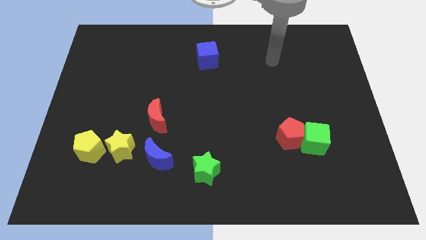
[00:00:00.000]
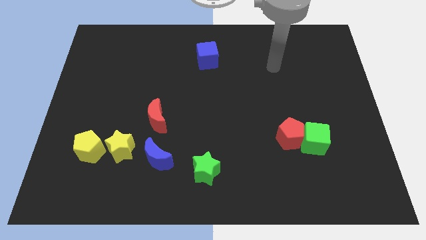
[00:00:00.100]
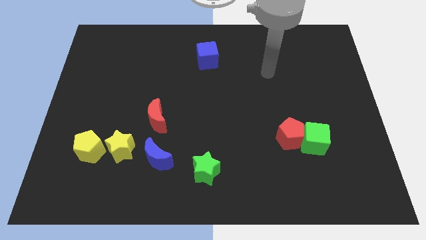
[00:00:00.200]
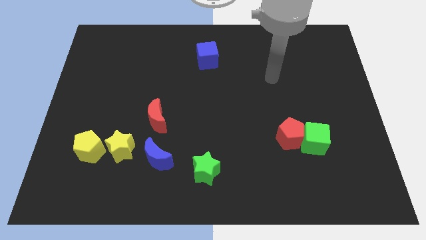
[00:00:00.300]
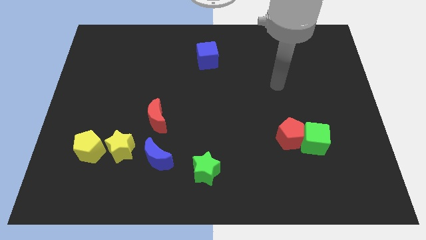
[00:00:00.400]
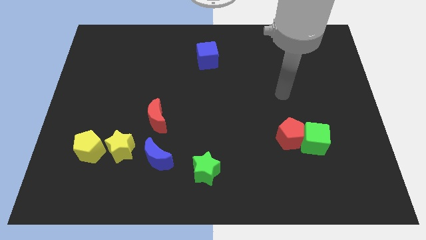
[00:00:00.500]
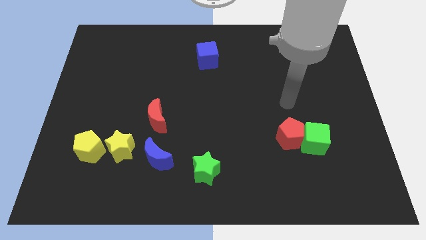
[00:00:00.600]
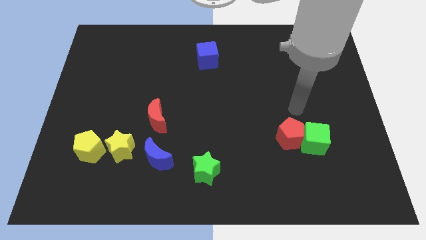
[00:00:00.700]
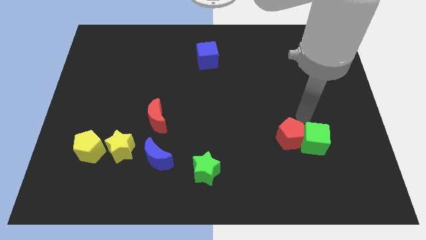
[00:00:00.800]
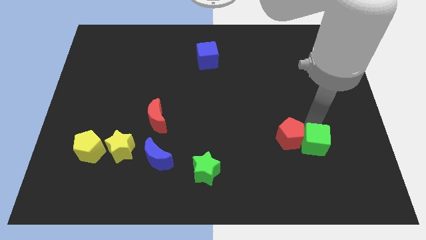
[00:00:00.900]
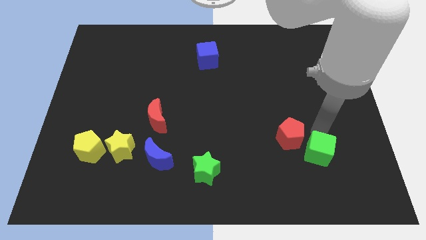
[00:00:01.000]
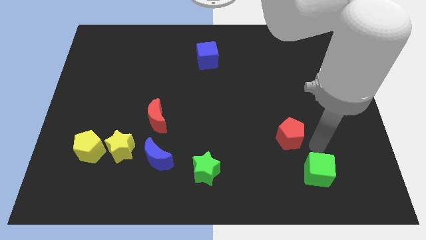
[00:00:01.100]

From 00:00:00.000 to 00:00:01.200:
separate the red pentagon from the green cube

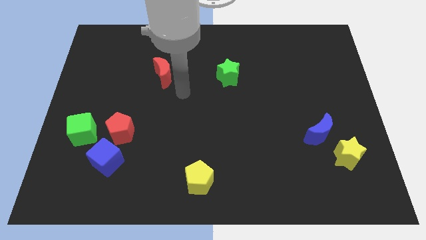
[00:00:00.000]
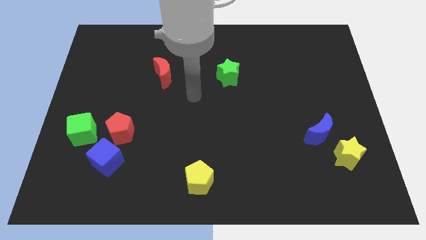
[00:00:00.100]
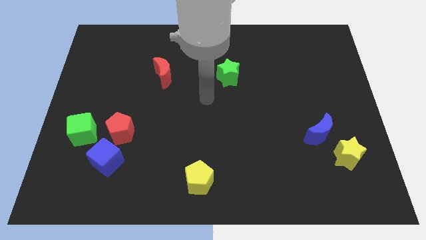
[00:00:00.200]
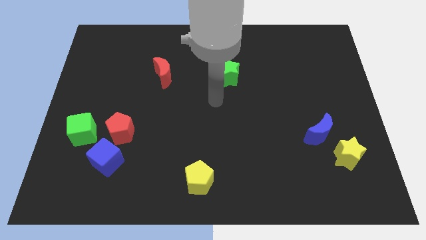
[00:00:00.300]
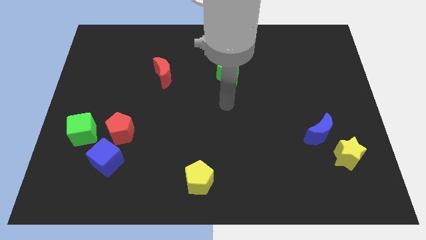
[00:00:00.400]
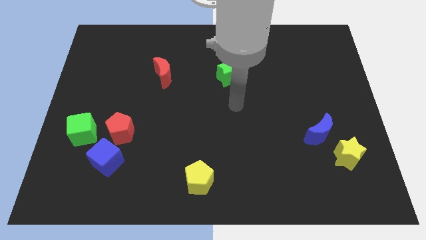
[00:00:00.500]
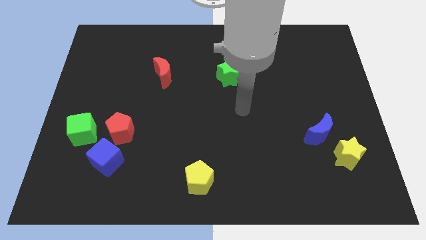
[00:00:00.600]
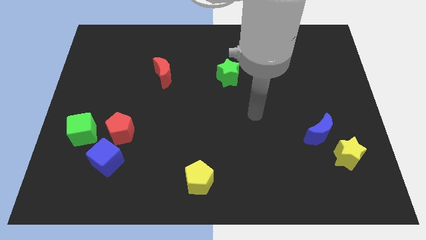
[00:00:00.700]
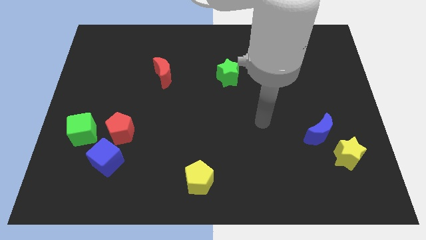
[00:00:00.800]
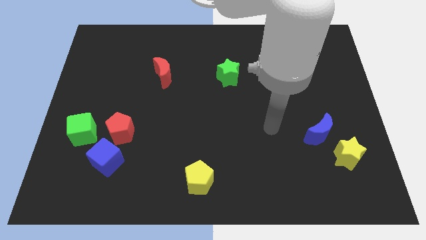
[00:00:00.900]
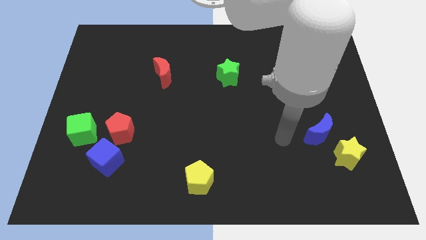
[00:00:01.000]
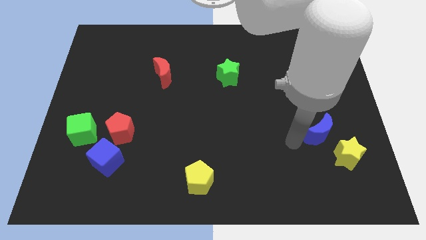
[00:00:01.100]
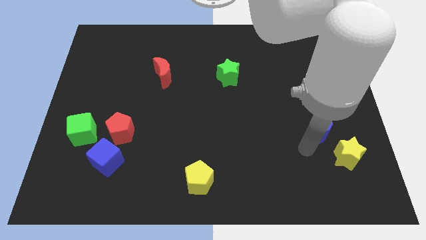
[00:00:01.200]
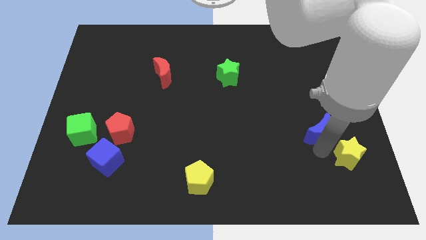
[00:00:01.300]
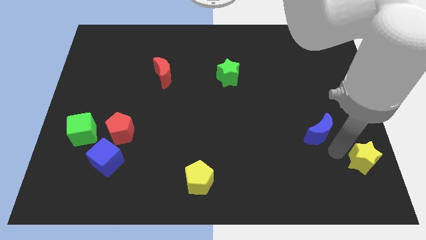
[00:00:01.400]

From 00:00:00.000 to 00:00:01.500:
move the blue moon away from the yellow star

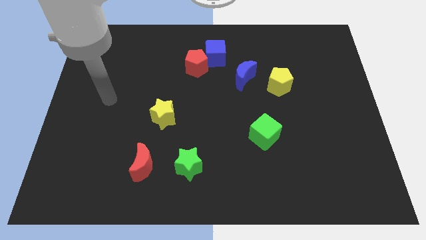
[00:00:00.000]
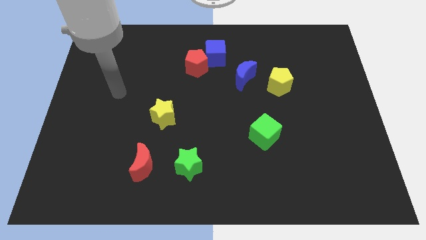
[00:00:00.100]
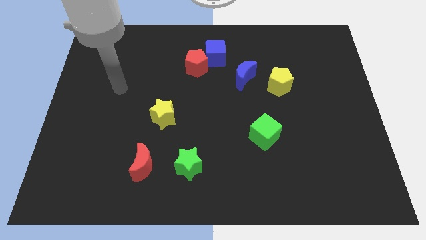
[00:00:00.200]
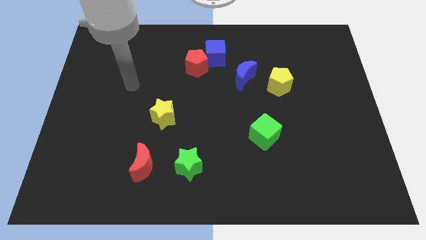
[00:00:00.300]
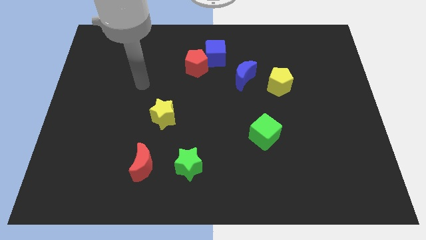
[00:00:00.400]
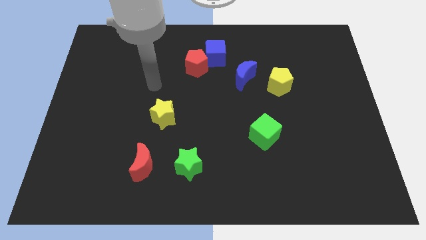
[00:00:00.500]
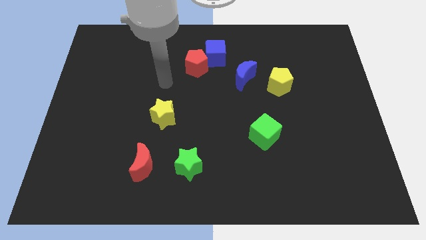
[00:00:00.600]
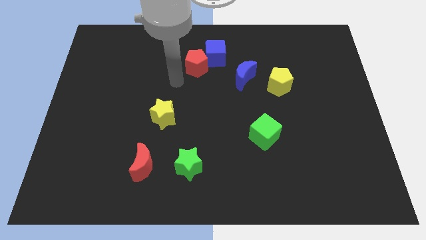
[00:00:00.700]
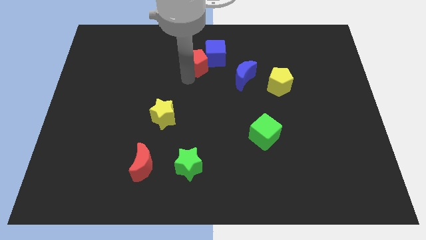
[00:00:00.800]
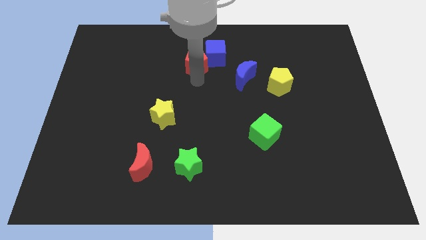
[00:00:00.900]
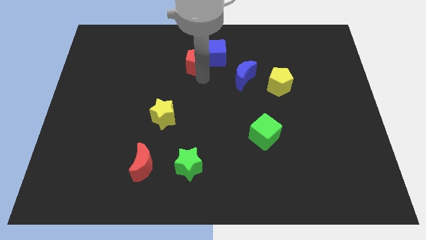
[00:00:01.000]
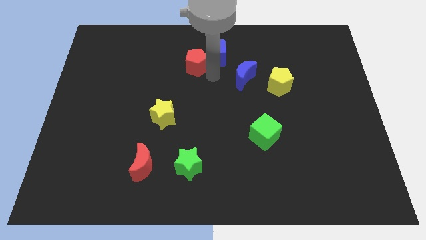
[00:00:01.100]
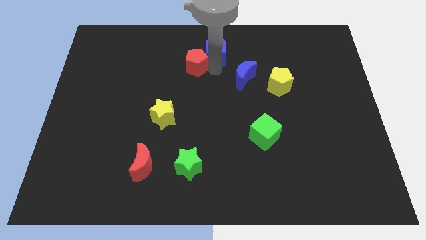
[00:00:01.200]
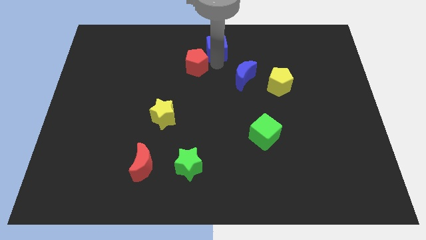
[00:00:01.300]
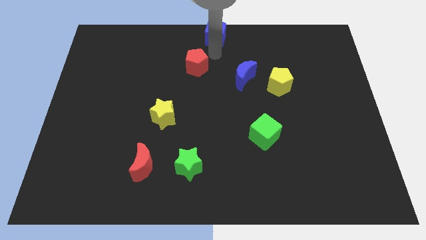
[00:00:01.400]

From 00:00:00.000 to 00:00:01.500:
move the red pentagon away from the blue cube

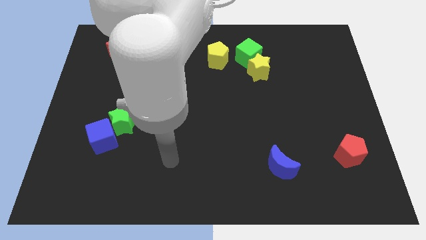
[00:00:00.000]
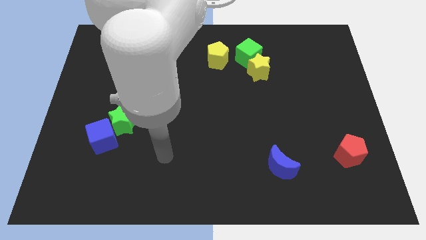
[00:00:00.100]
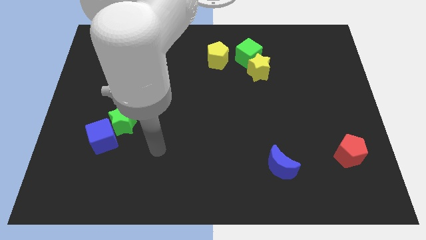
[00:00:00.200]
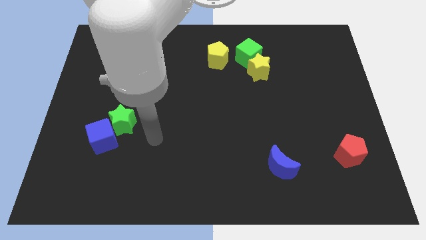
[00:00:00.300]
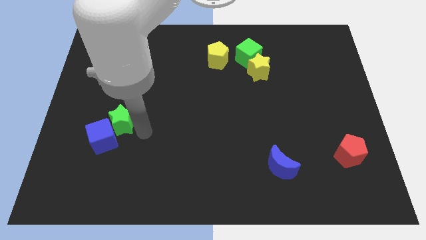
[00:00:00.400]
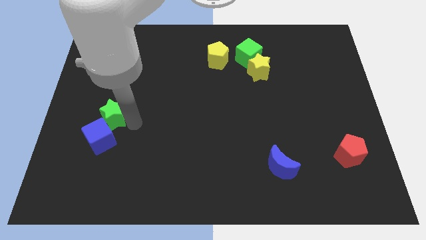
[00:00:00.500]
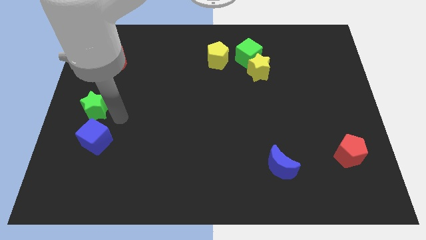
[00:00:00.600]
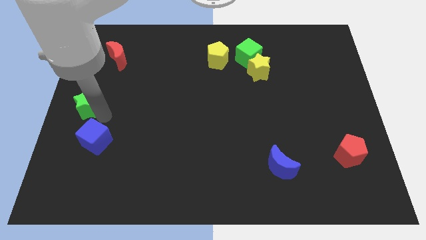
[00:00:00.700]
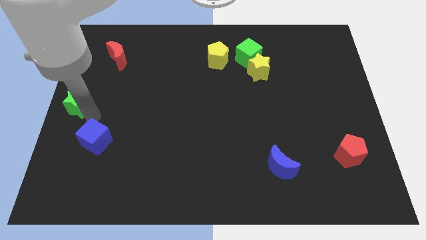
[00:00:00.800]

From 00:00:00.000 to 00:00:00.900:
pull the blue cube apart from the green star

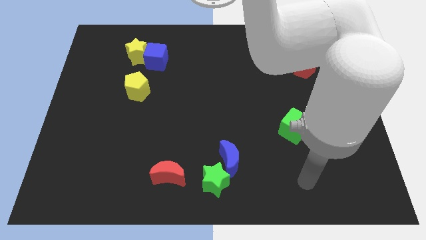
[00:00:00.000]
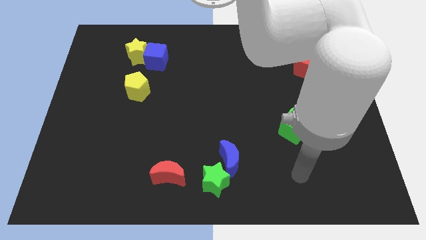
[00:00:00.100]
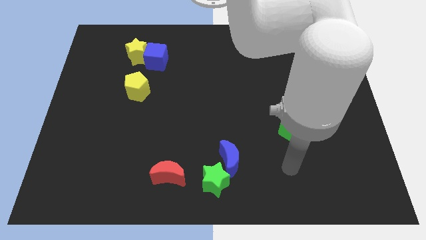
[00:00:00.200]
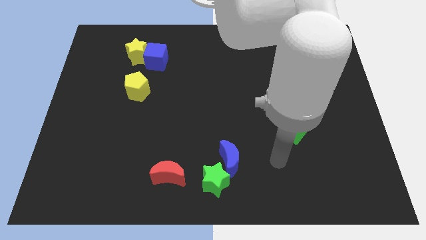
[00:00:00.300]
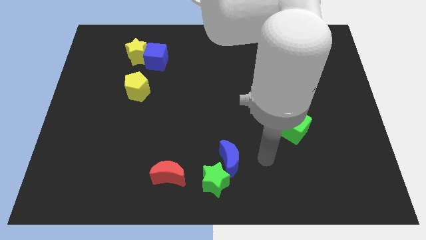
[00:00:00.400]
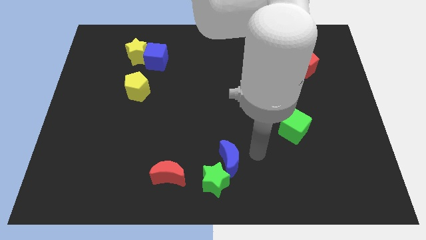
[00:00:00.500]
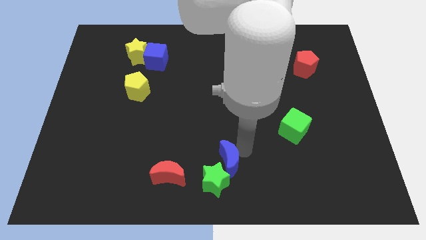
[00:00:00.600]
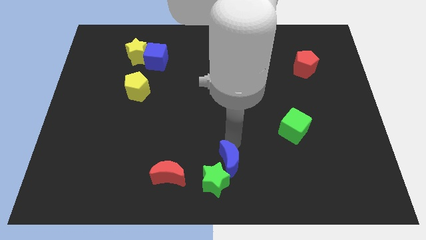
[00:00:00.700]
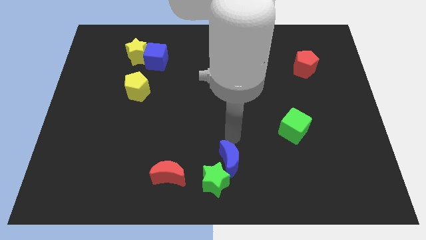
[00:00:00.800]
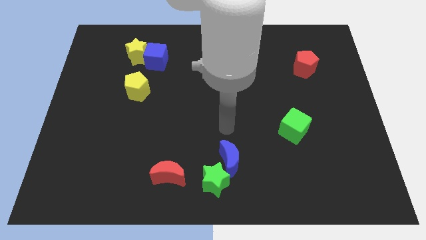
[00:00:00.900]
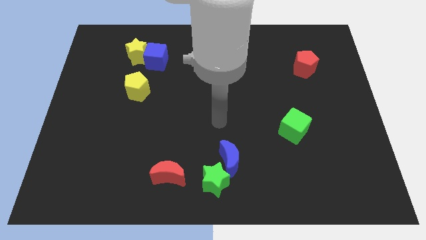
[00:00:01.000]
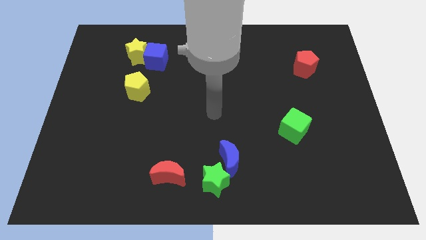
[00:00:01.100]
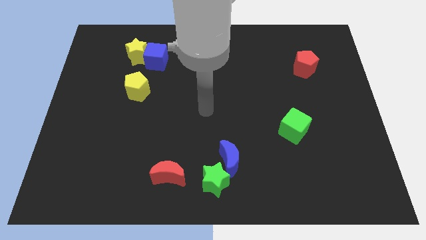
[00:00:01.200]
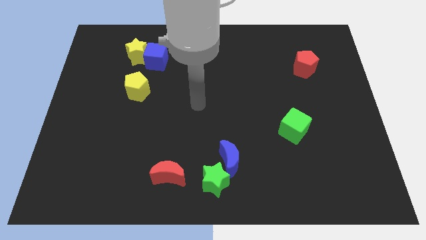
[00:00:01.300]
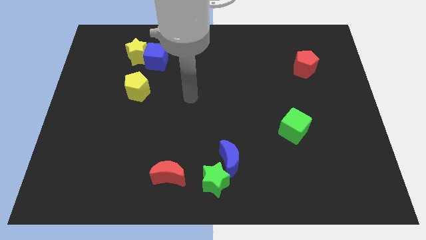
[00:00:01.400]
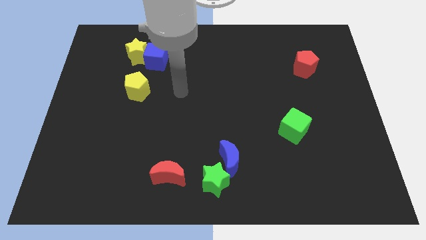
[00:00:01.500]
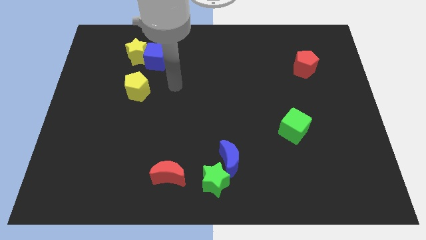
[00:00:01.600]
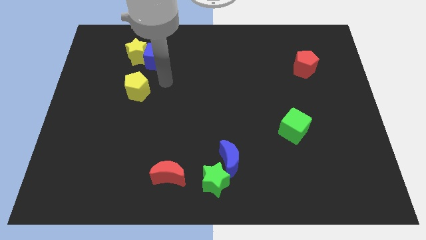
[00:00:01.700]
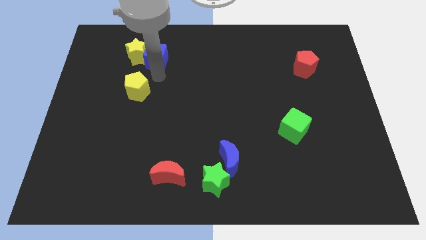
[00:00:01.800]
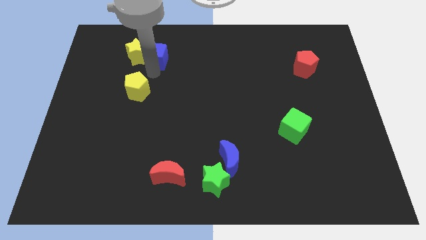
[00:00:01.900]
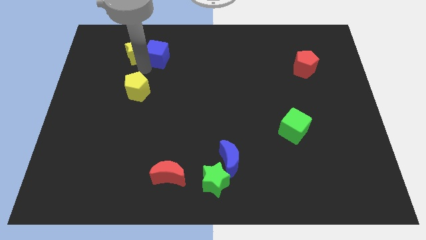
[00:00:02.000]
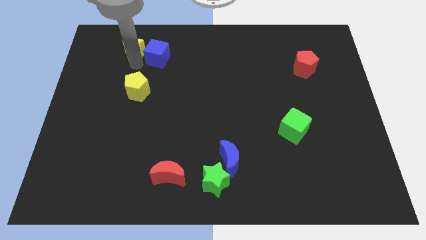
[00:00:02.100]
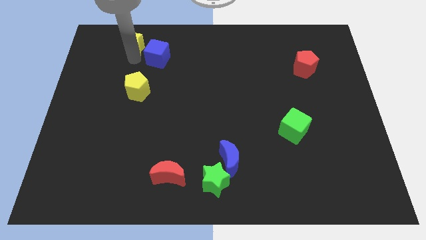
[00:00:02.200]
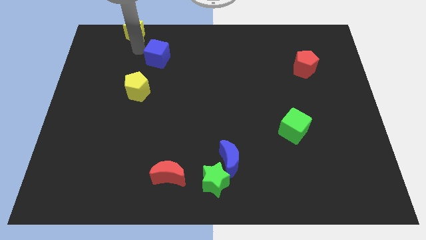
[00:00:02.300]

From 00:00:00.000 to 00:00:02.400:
pull the blue cube apart from the yellow star

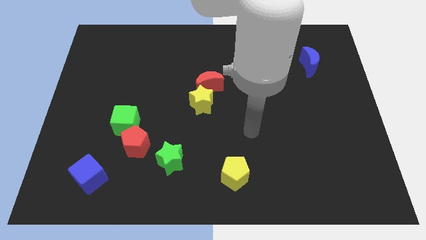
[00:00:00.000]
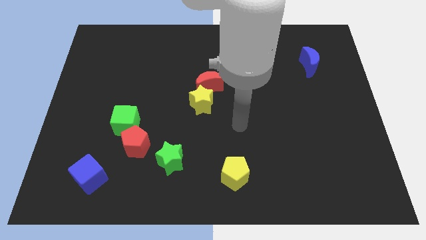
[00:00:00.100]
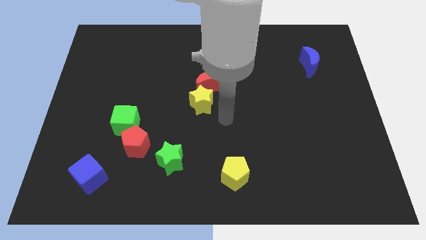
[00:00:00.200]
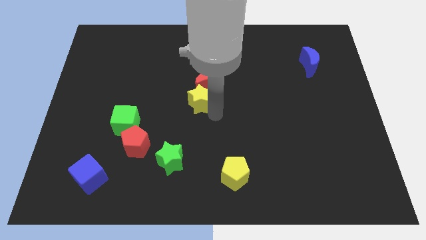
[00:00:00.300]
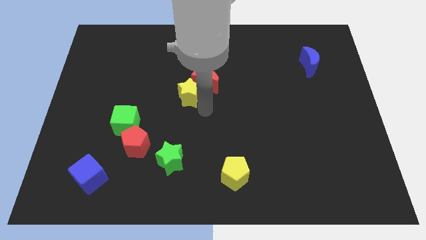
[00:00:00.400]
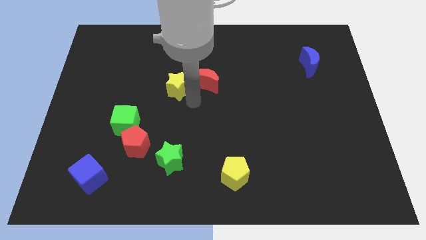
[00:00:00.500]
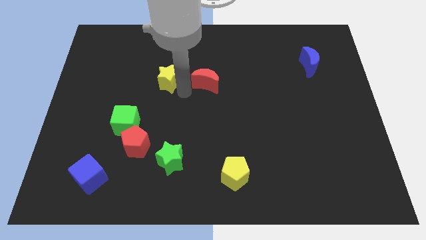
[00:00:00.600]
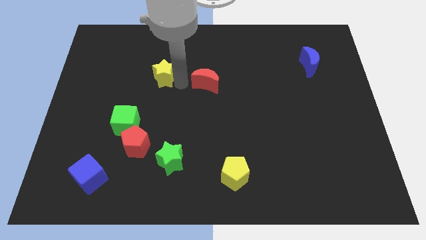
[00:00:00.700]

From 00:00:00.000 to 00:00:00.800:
move the red moon away from the yellow star

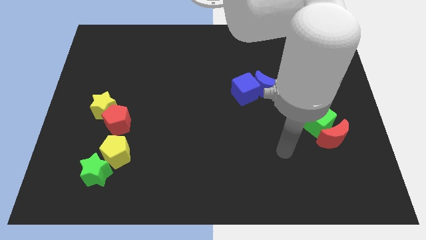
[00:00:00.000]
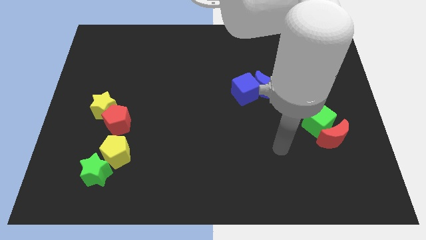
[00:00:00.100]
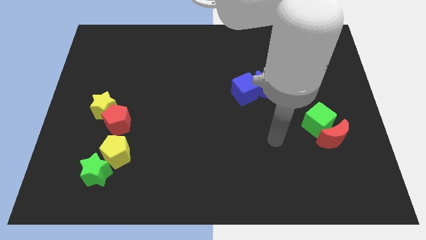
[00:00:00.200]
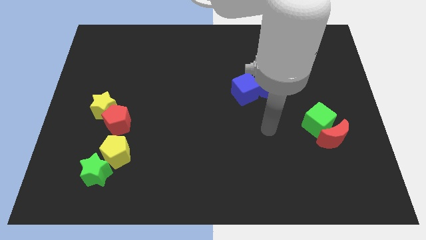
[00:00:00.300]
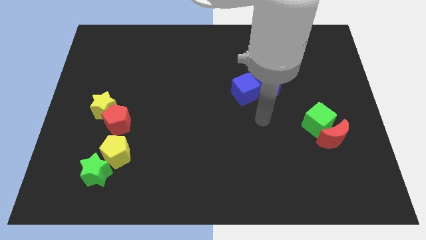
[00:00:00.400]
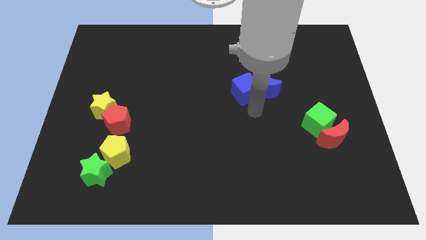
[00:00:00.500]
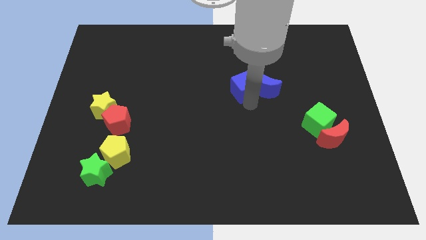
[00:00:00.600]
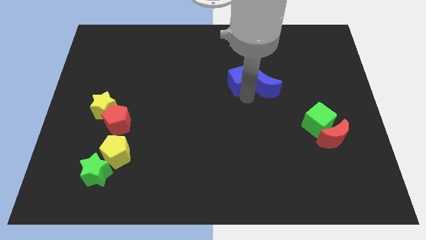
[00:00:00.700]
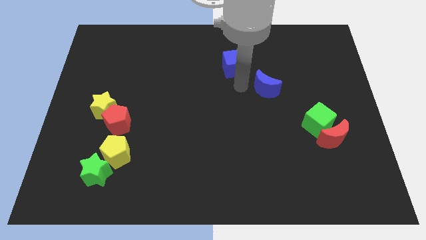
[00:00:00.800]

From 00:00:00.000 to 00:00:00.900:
pull the blue moon apart from the blue cube
